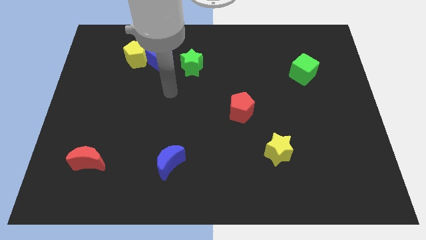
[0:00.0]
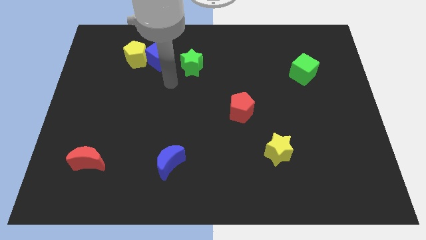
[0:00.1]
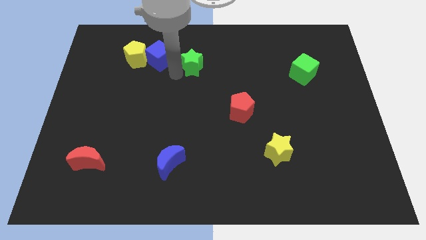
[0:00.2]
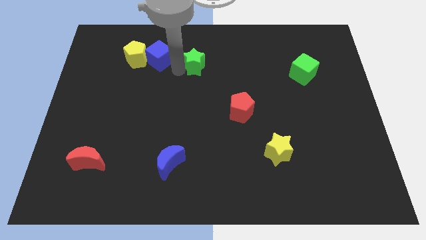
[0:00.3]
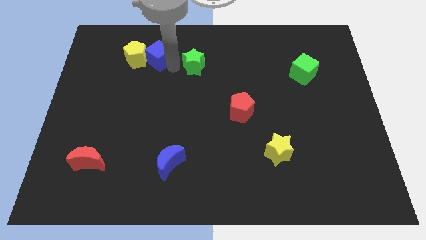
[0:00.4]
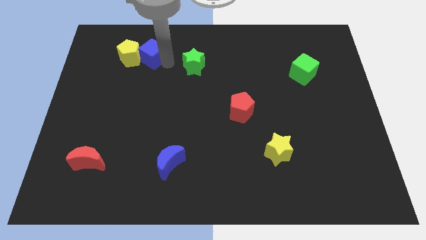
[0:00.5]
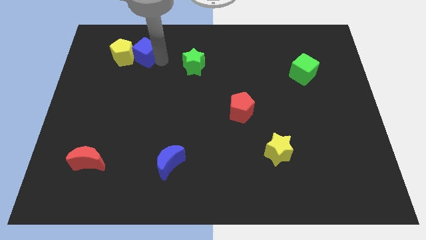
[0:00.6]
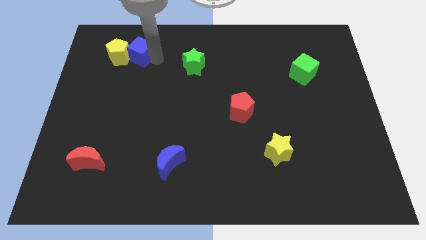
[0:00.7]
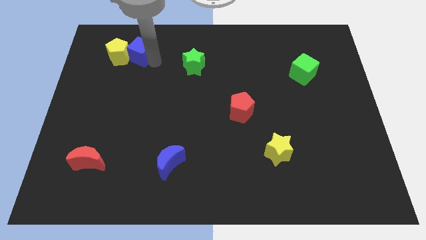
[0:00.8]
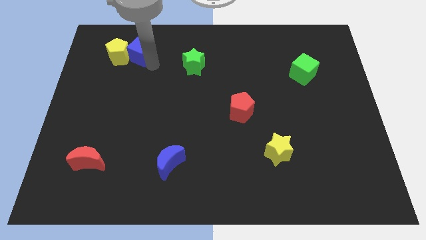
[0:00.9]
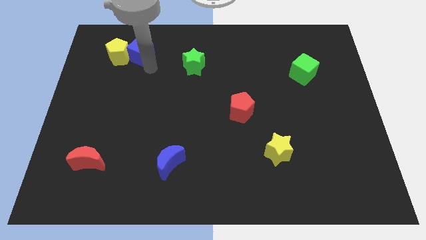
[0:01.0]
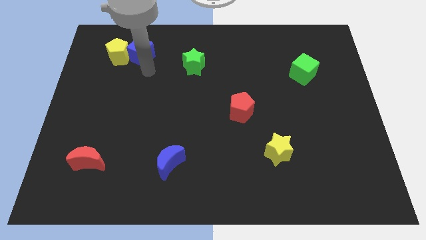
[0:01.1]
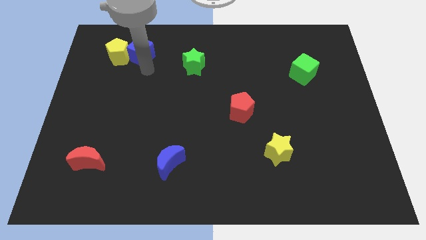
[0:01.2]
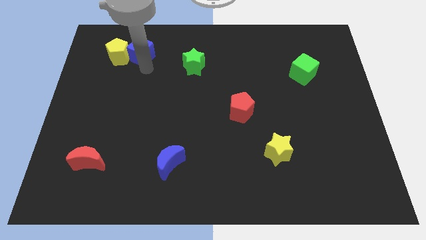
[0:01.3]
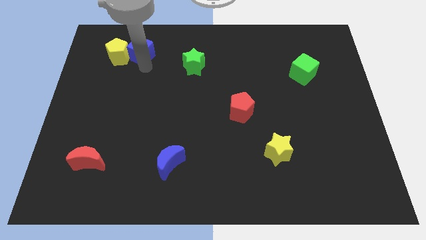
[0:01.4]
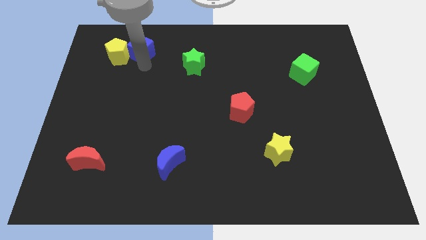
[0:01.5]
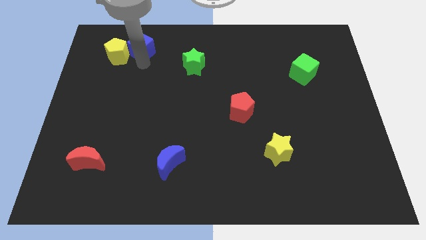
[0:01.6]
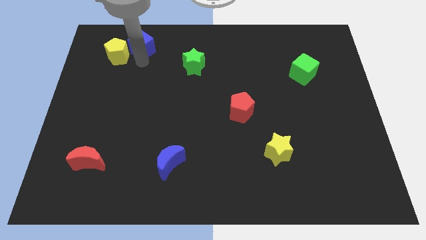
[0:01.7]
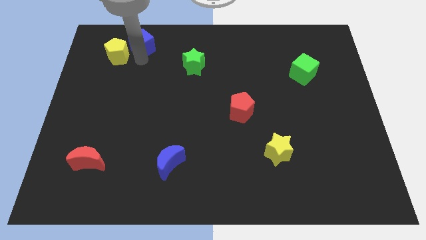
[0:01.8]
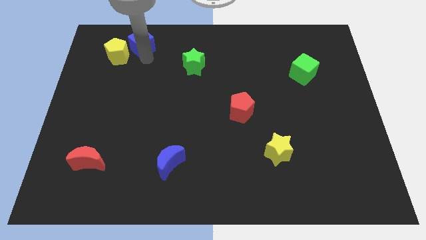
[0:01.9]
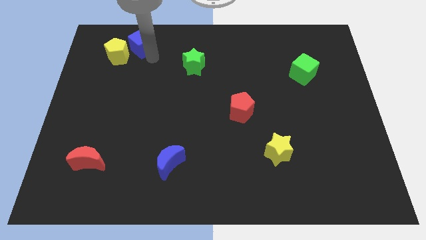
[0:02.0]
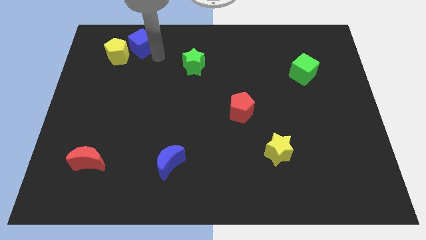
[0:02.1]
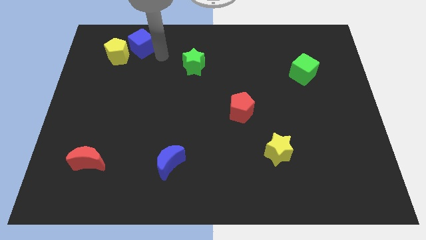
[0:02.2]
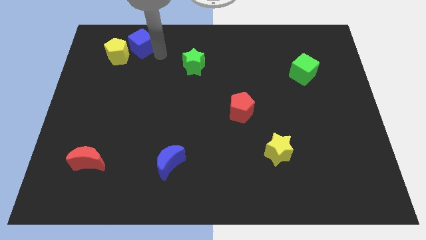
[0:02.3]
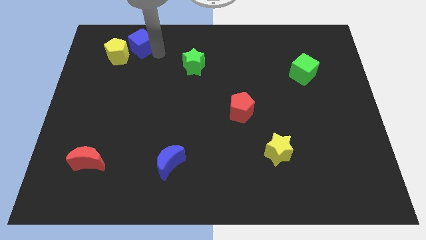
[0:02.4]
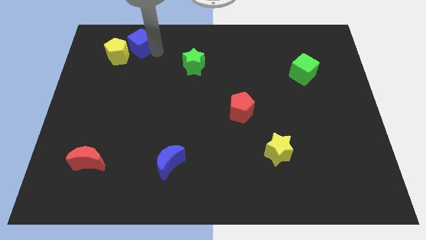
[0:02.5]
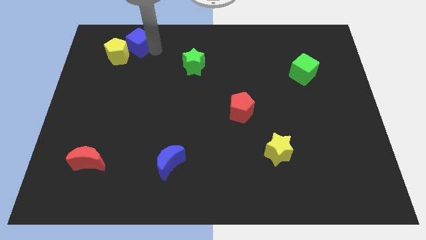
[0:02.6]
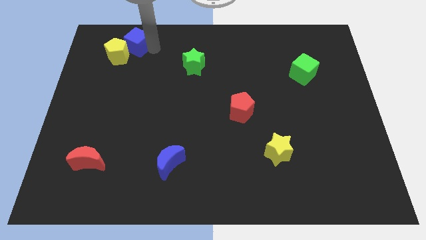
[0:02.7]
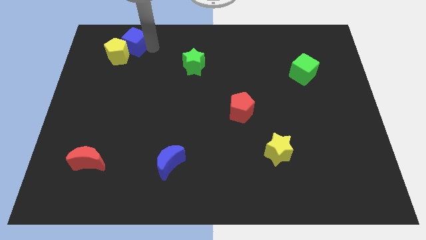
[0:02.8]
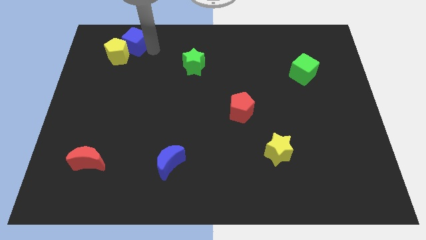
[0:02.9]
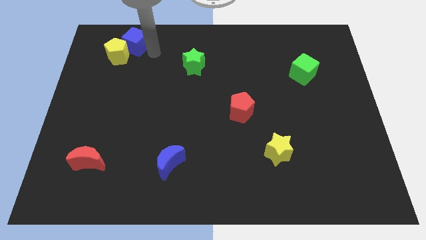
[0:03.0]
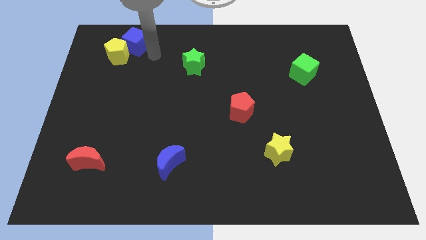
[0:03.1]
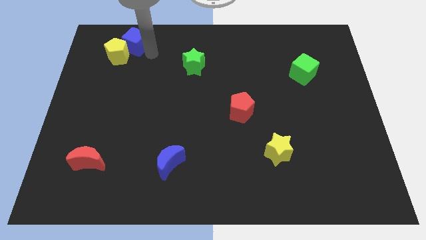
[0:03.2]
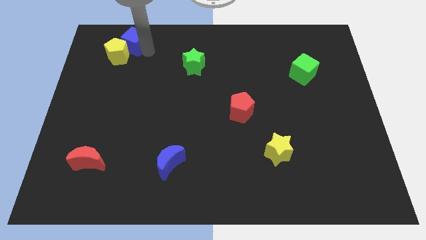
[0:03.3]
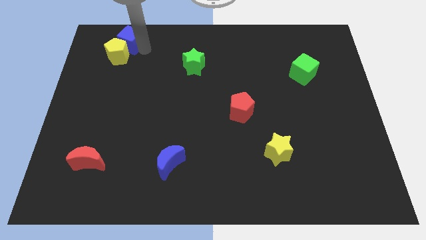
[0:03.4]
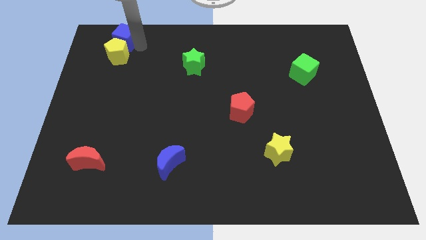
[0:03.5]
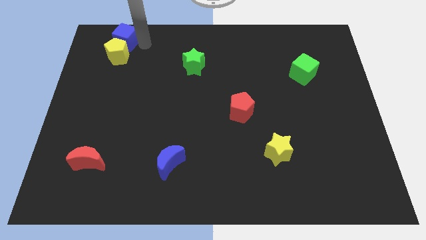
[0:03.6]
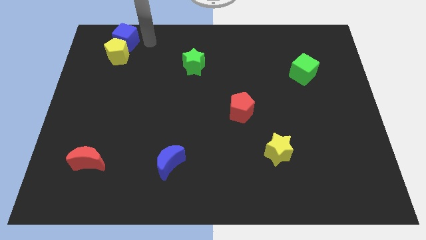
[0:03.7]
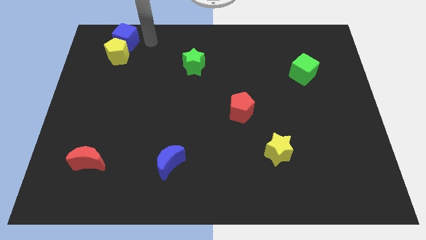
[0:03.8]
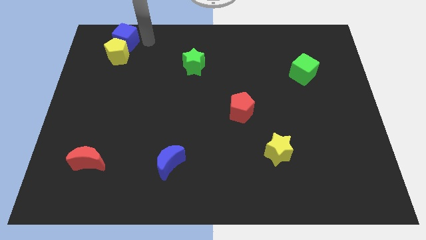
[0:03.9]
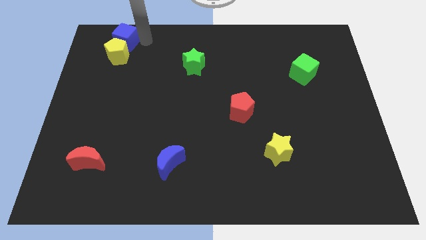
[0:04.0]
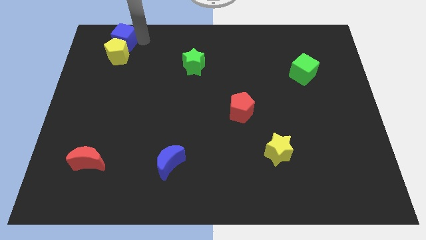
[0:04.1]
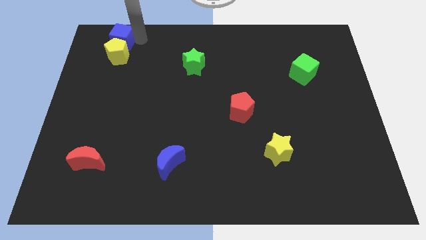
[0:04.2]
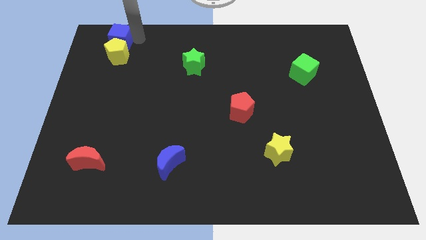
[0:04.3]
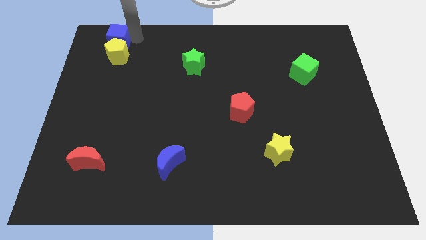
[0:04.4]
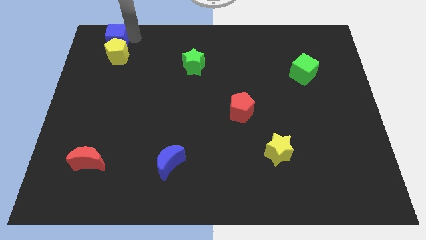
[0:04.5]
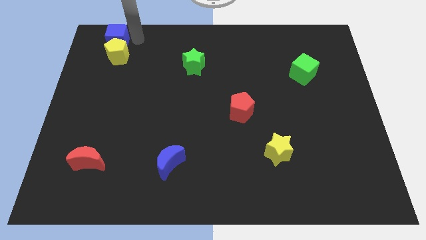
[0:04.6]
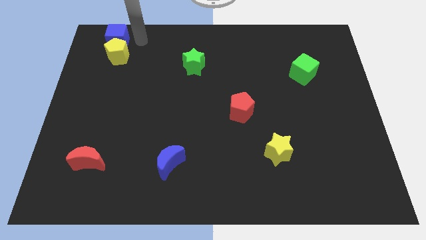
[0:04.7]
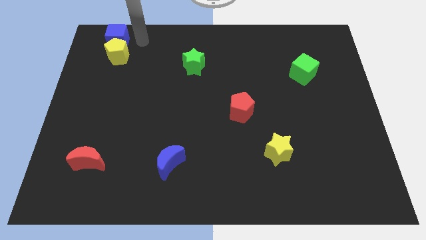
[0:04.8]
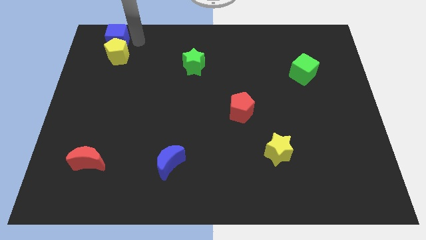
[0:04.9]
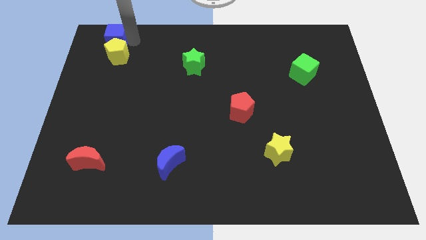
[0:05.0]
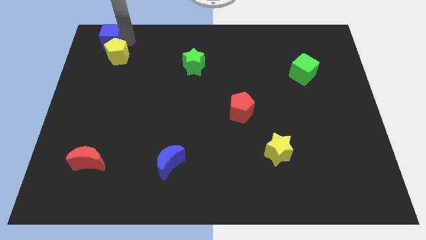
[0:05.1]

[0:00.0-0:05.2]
slide the blue cube to the upper left corner
